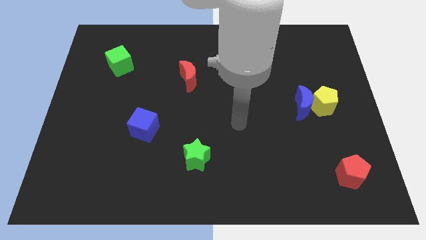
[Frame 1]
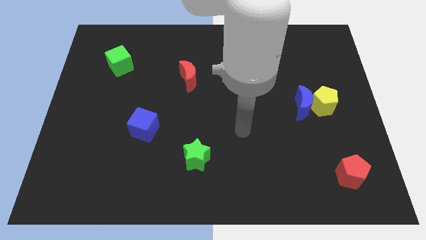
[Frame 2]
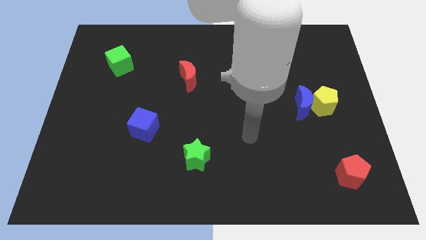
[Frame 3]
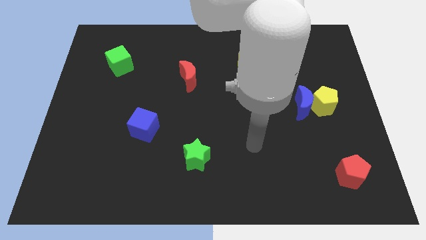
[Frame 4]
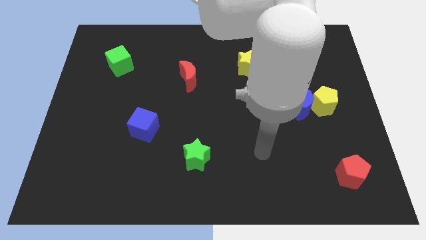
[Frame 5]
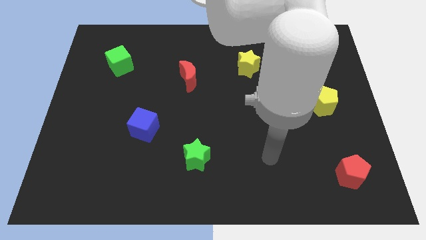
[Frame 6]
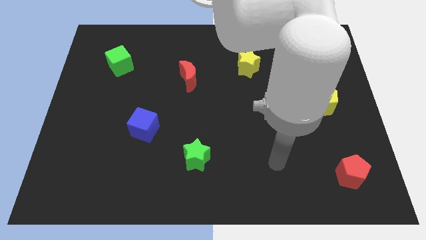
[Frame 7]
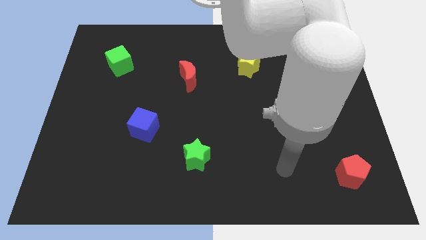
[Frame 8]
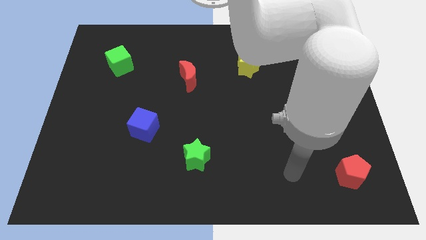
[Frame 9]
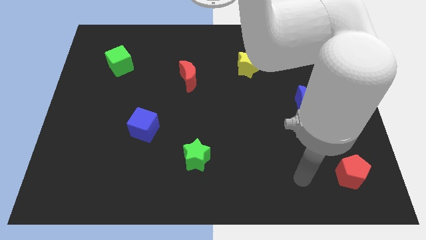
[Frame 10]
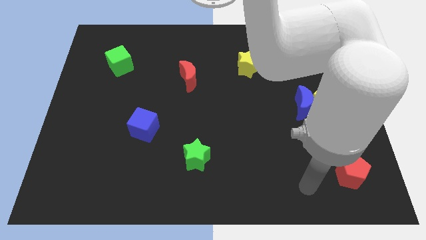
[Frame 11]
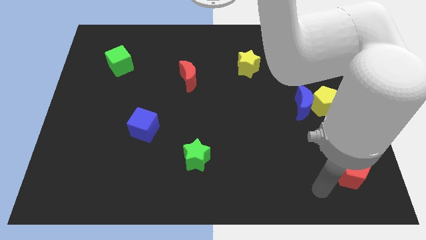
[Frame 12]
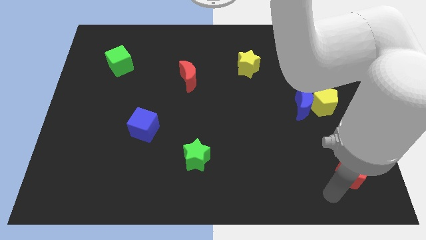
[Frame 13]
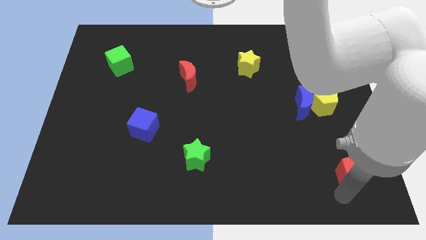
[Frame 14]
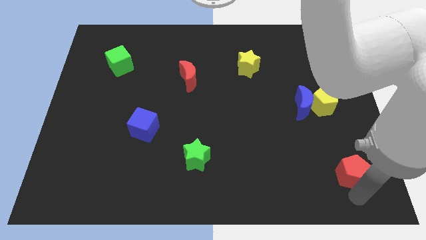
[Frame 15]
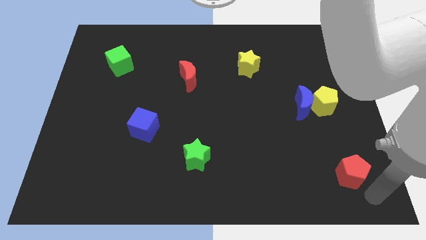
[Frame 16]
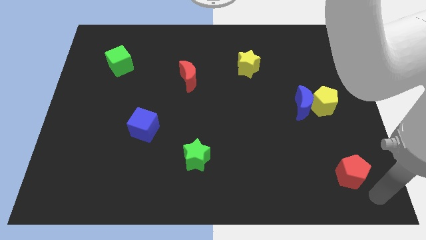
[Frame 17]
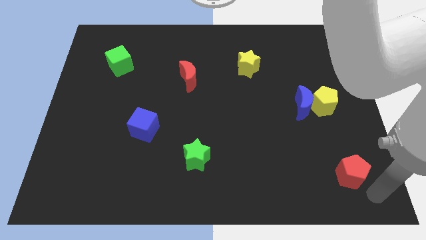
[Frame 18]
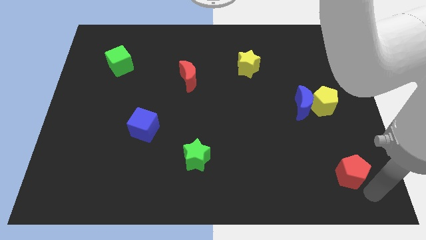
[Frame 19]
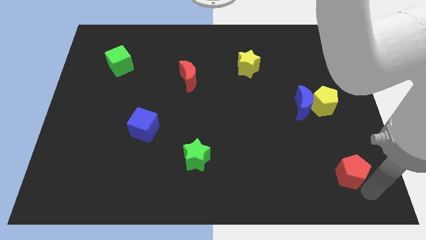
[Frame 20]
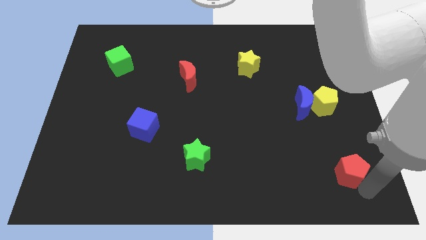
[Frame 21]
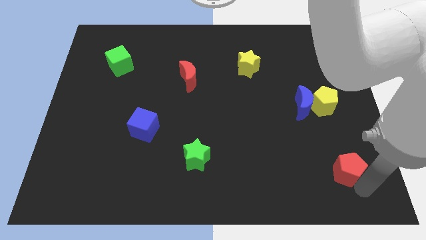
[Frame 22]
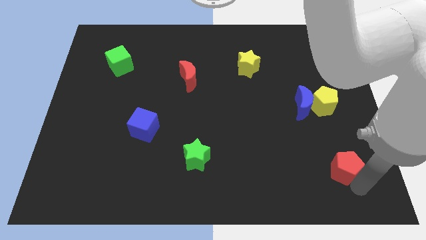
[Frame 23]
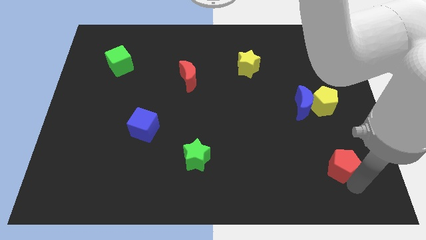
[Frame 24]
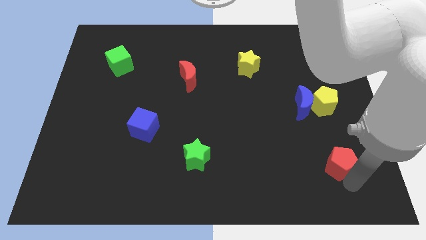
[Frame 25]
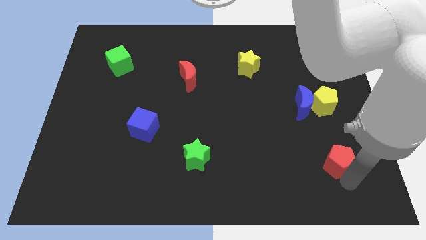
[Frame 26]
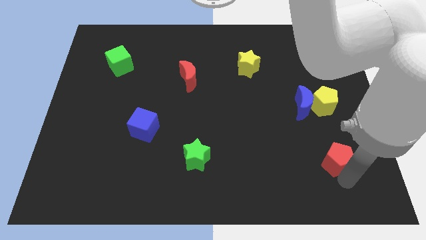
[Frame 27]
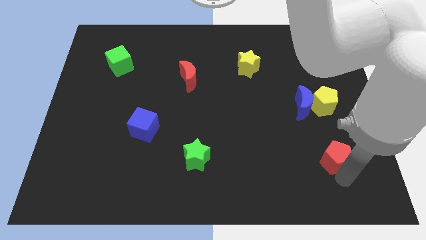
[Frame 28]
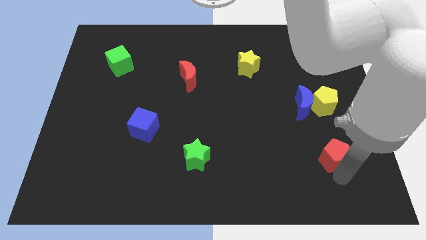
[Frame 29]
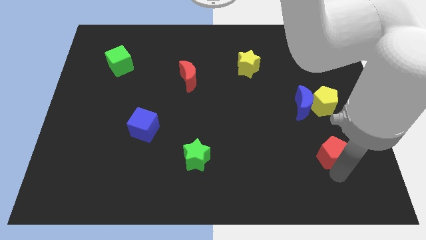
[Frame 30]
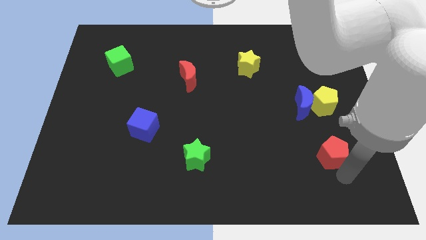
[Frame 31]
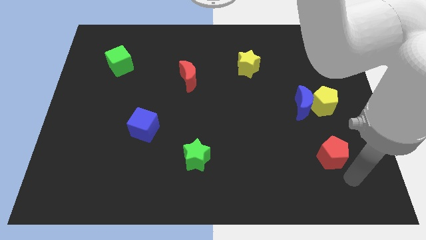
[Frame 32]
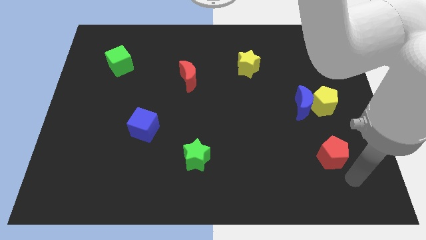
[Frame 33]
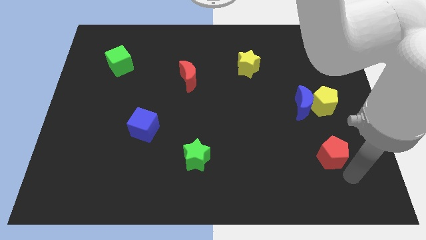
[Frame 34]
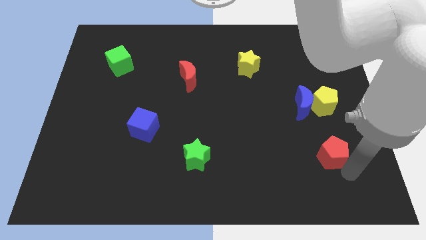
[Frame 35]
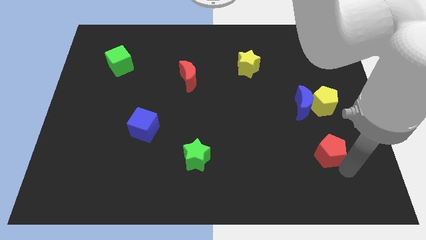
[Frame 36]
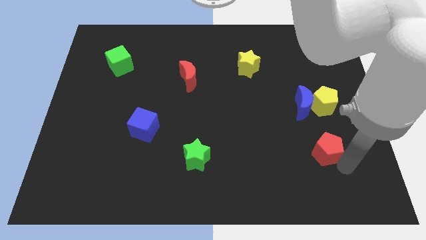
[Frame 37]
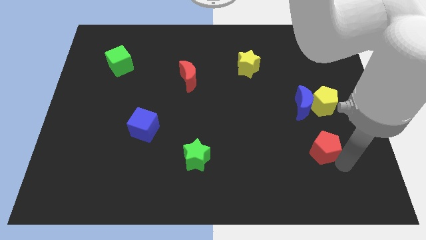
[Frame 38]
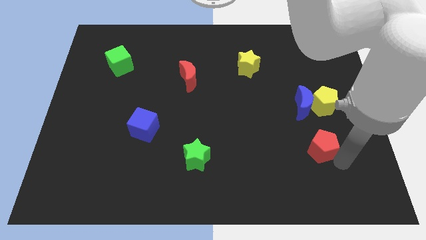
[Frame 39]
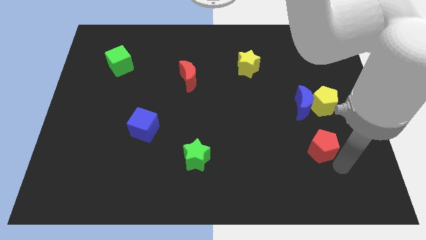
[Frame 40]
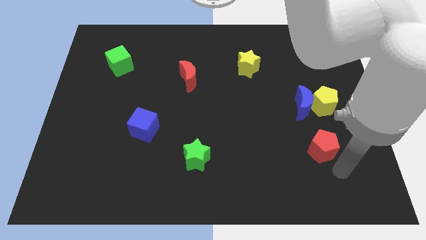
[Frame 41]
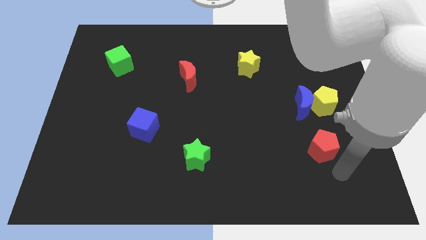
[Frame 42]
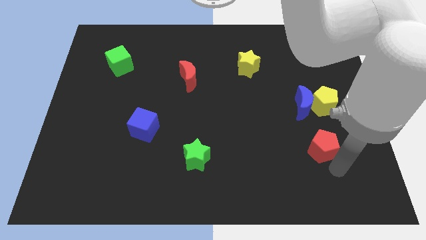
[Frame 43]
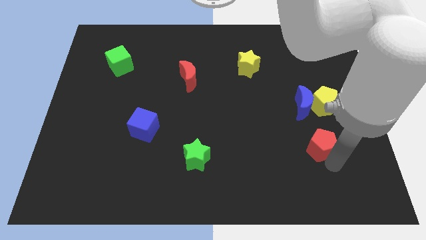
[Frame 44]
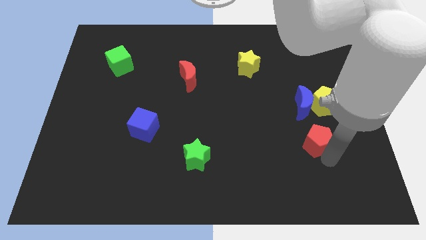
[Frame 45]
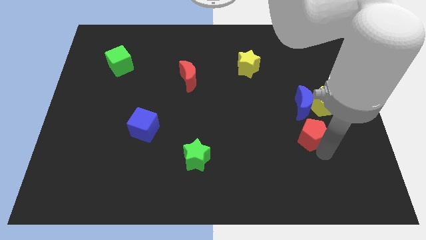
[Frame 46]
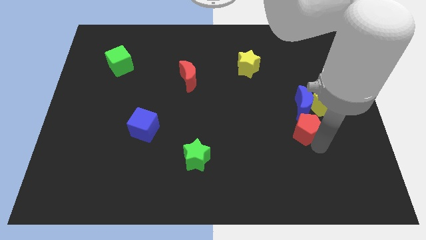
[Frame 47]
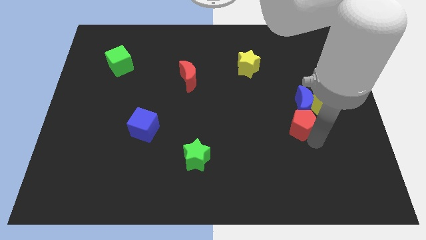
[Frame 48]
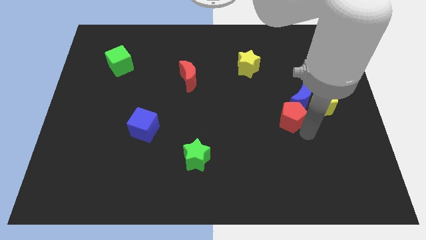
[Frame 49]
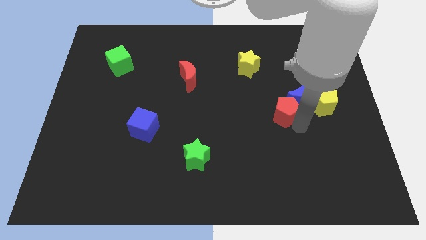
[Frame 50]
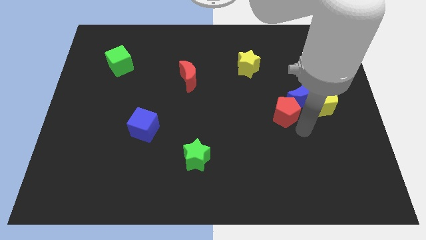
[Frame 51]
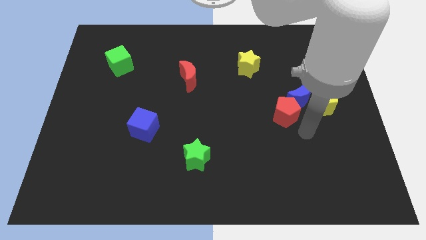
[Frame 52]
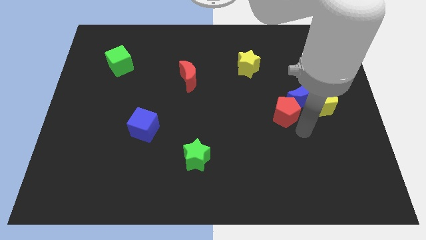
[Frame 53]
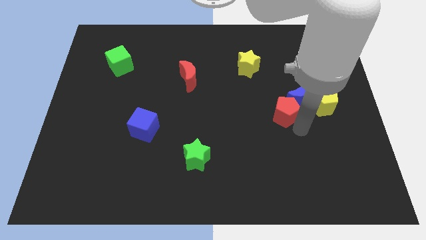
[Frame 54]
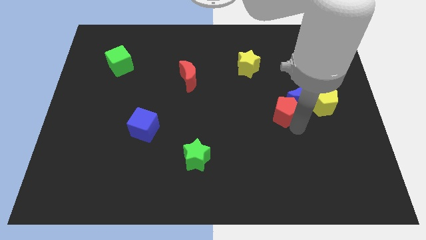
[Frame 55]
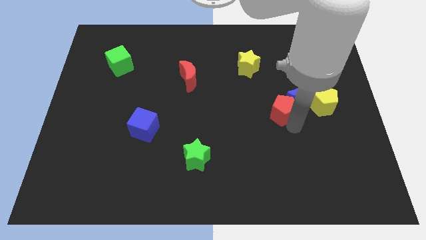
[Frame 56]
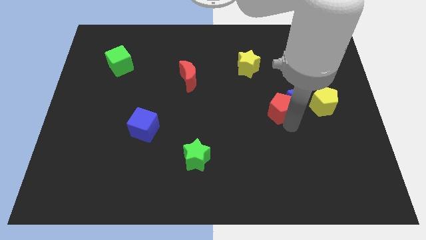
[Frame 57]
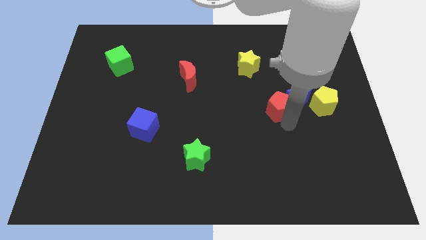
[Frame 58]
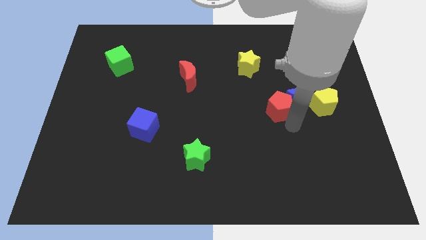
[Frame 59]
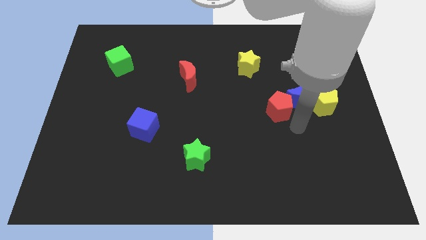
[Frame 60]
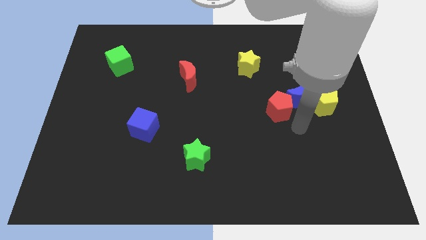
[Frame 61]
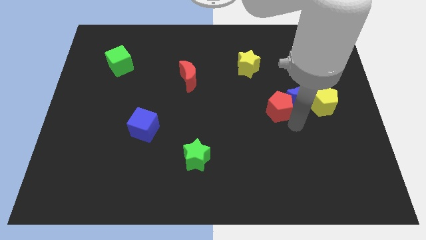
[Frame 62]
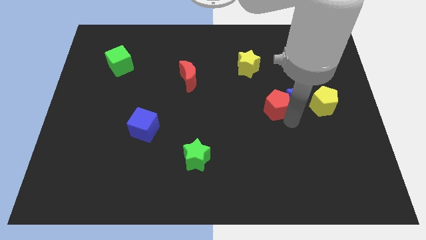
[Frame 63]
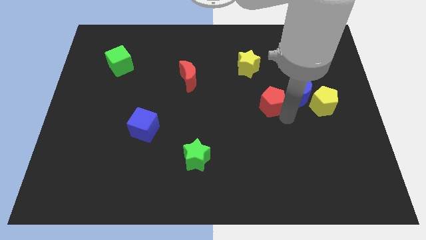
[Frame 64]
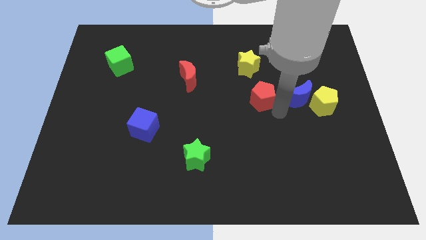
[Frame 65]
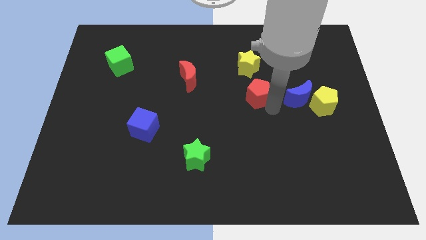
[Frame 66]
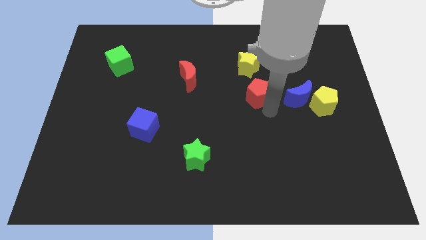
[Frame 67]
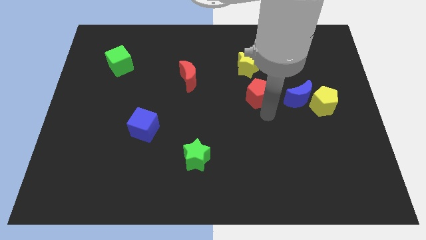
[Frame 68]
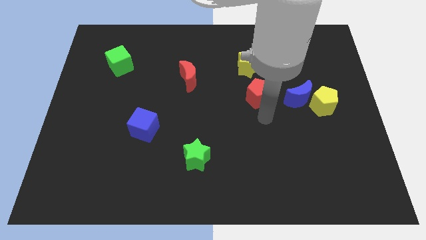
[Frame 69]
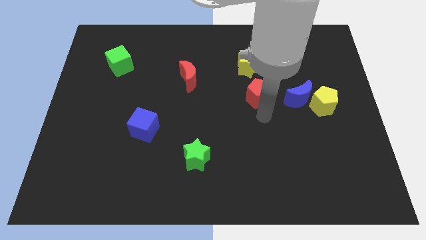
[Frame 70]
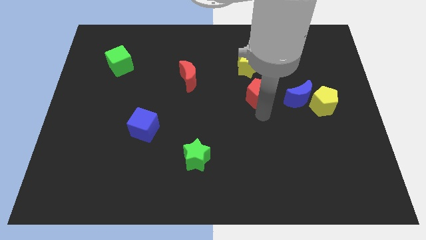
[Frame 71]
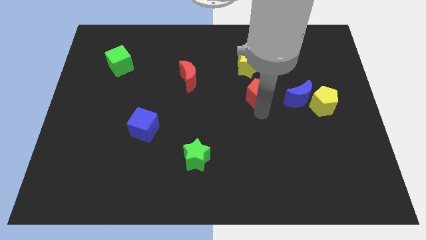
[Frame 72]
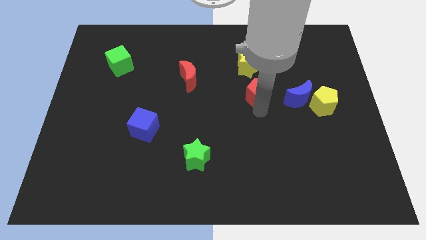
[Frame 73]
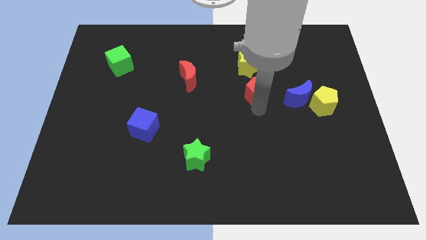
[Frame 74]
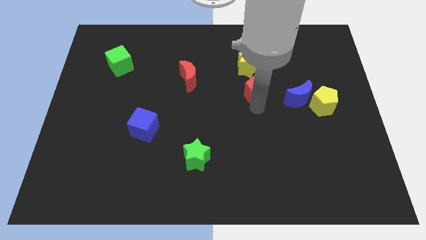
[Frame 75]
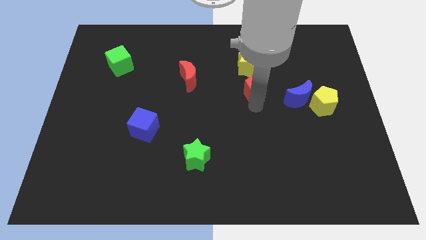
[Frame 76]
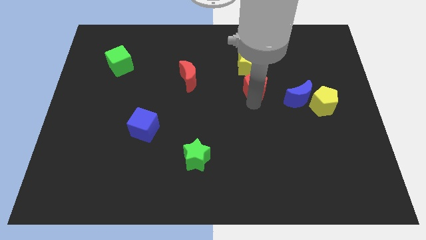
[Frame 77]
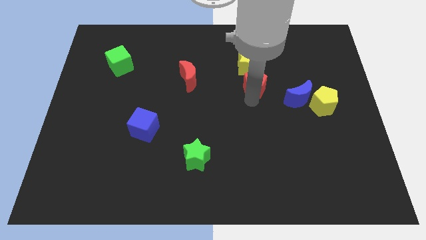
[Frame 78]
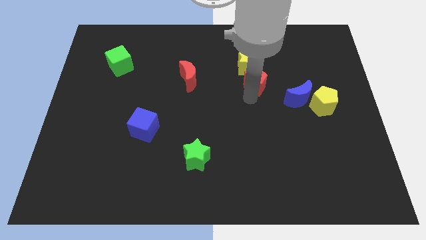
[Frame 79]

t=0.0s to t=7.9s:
slide the red pentagon to the yellow star

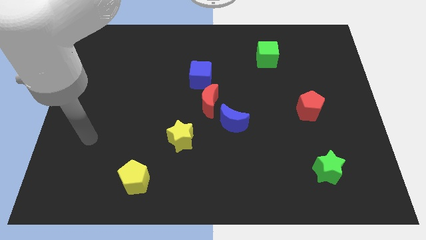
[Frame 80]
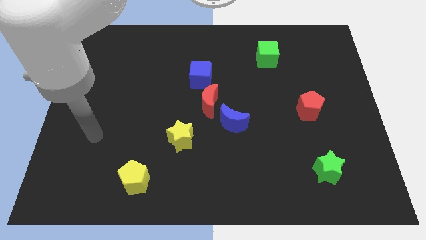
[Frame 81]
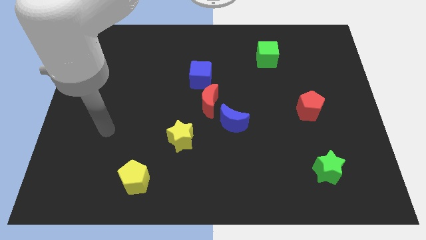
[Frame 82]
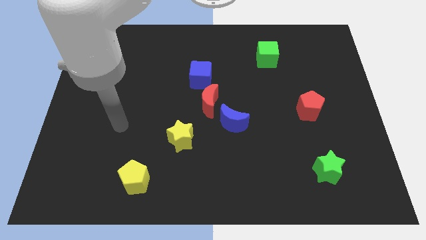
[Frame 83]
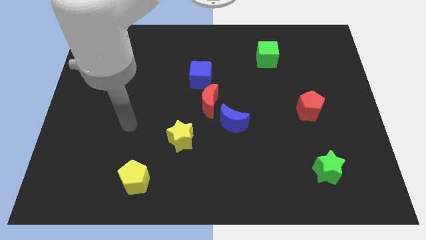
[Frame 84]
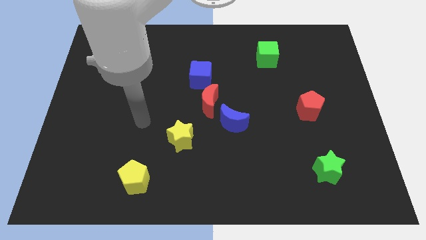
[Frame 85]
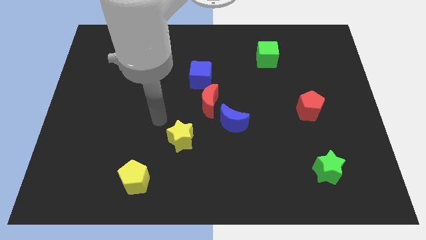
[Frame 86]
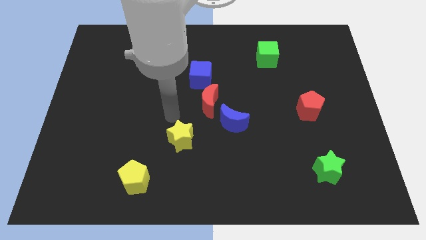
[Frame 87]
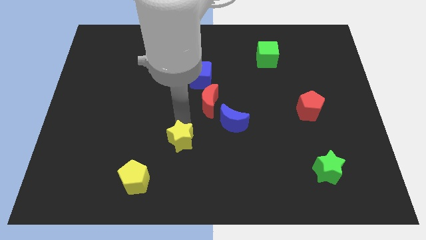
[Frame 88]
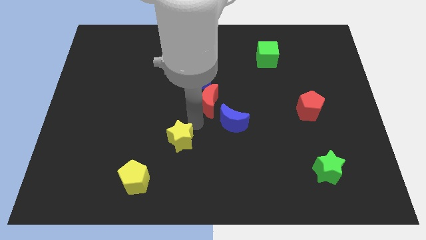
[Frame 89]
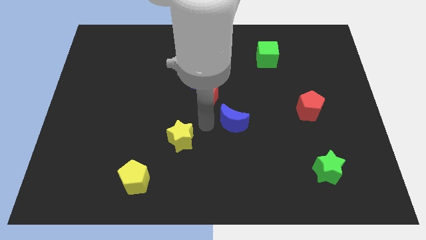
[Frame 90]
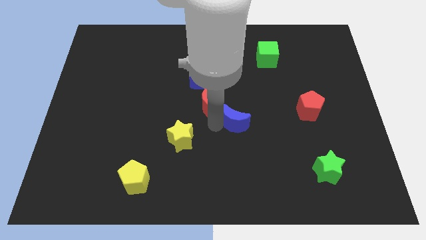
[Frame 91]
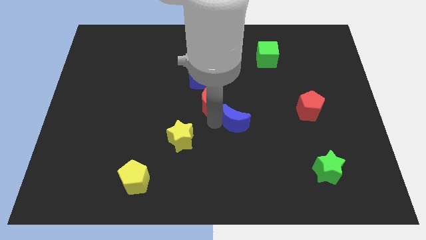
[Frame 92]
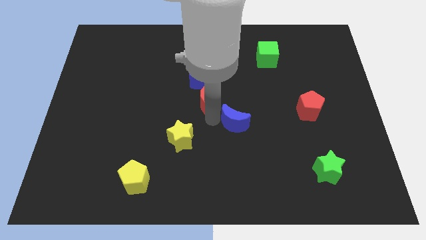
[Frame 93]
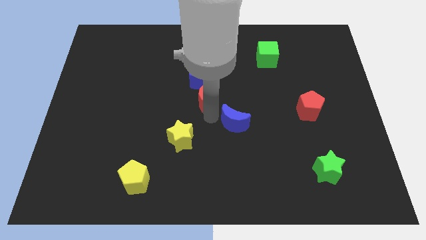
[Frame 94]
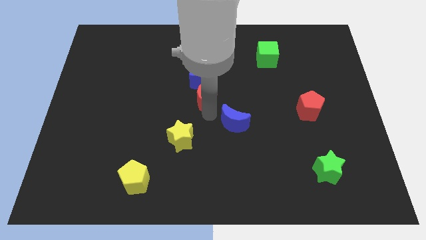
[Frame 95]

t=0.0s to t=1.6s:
slide the red moon close to the blue cube
